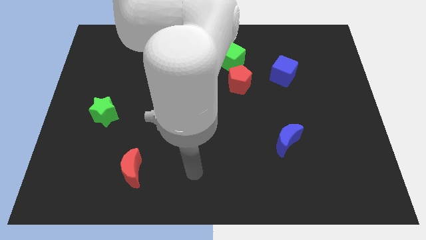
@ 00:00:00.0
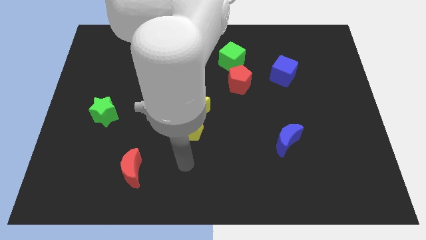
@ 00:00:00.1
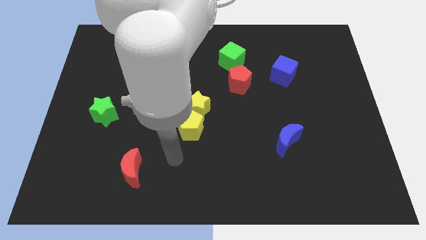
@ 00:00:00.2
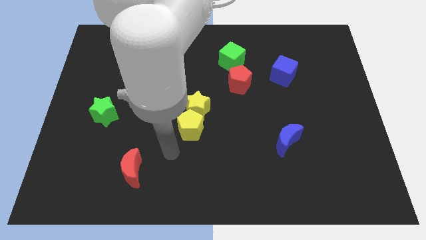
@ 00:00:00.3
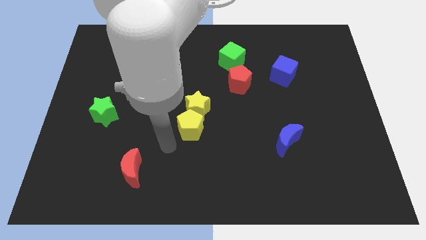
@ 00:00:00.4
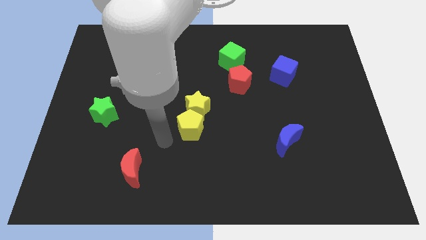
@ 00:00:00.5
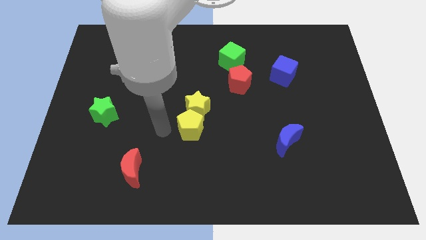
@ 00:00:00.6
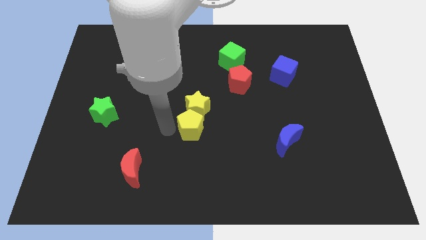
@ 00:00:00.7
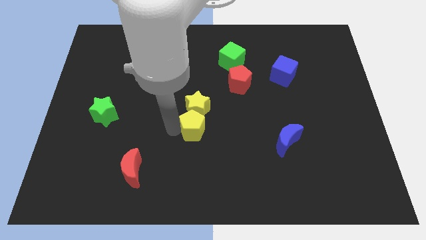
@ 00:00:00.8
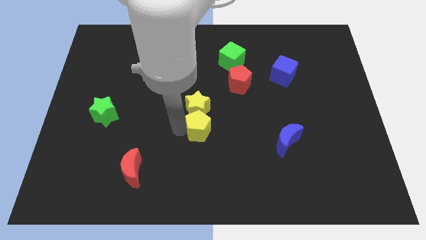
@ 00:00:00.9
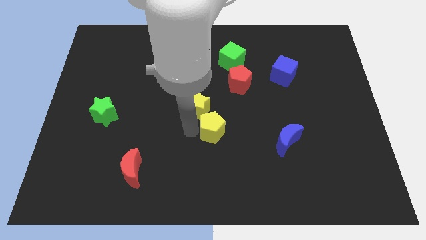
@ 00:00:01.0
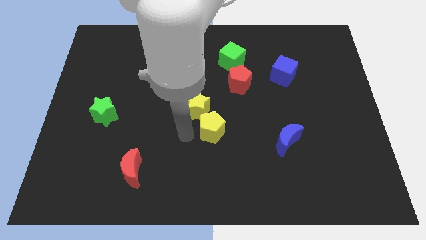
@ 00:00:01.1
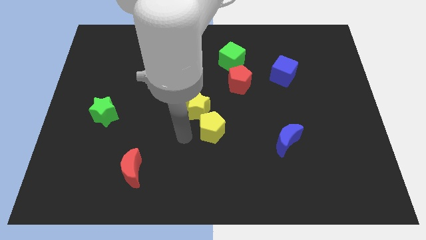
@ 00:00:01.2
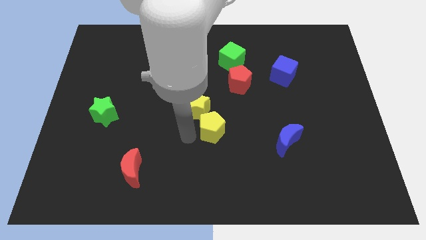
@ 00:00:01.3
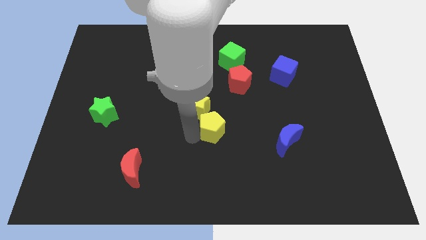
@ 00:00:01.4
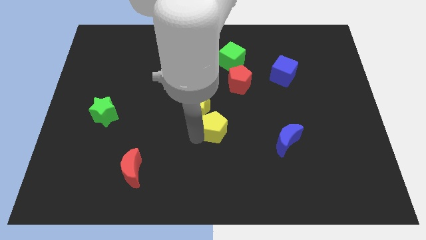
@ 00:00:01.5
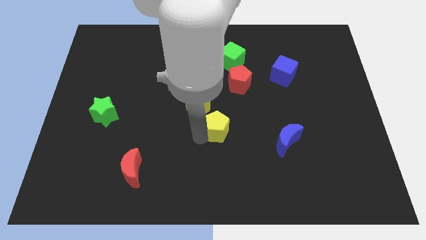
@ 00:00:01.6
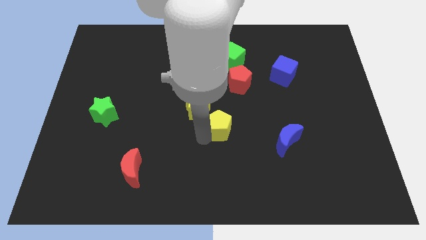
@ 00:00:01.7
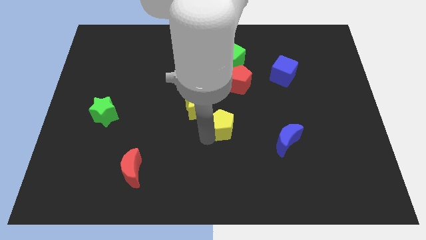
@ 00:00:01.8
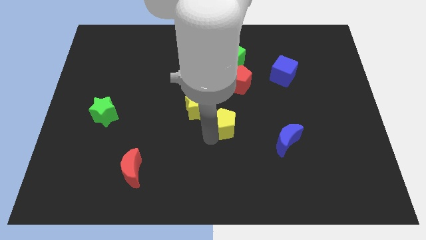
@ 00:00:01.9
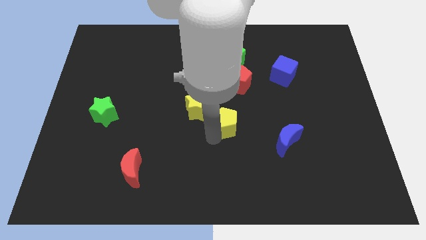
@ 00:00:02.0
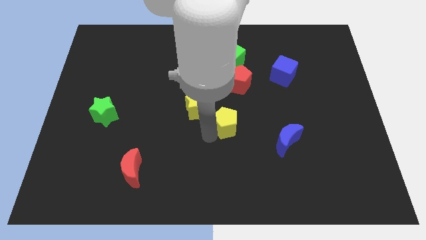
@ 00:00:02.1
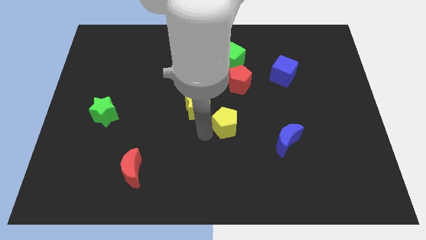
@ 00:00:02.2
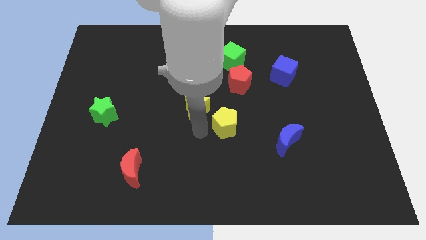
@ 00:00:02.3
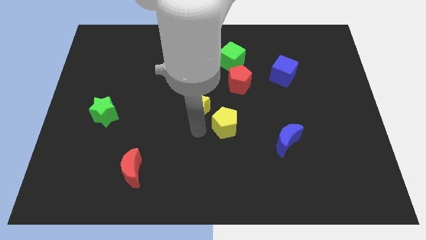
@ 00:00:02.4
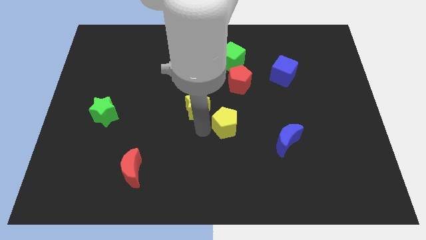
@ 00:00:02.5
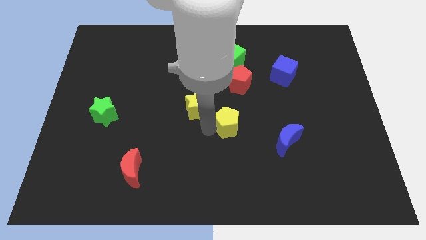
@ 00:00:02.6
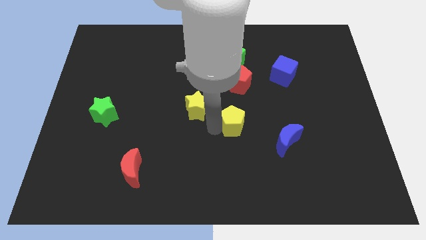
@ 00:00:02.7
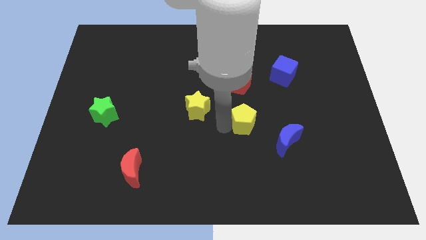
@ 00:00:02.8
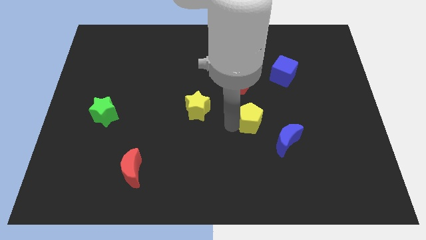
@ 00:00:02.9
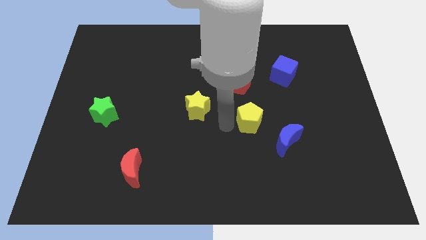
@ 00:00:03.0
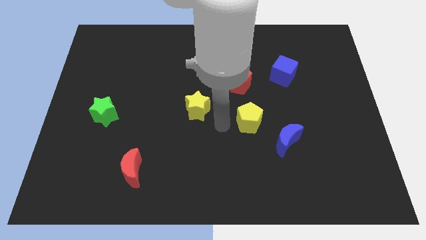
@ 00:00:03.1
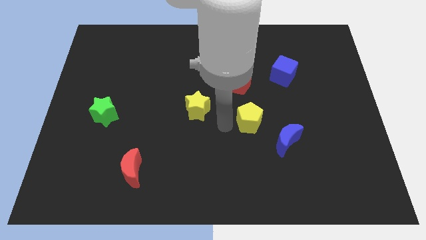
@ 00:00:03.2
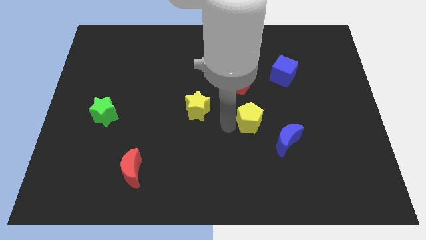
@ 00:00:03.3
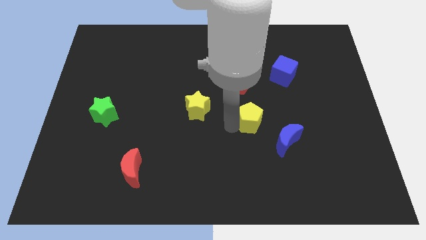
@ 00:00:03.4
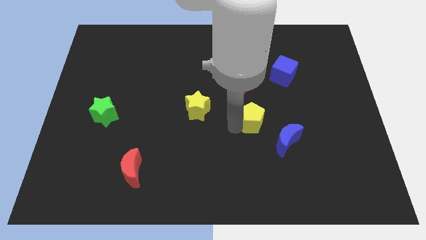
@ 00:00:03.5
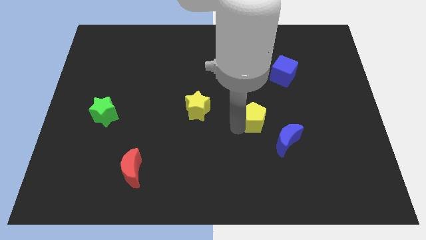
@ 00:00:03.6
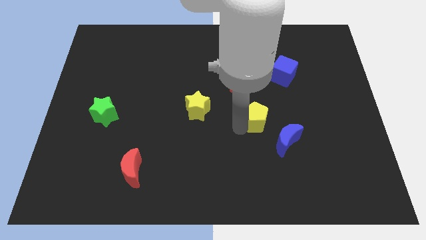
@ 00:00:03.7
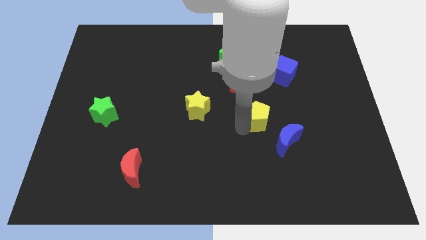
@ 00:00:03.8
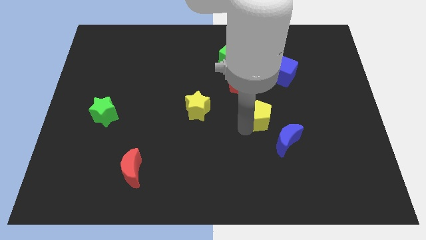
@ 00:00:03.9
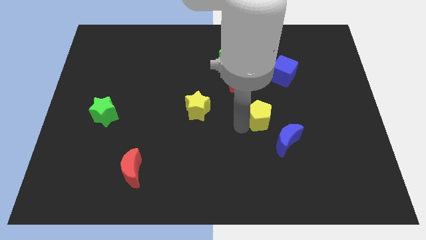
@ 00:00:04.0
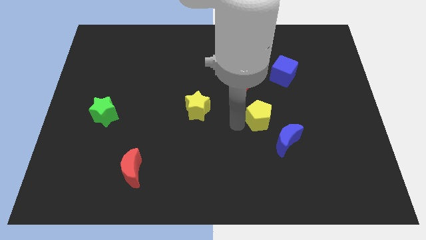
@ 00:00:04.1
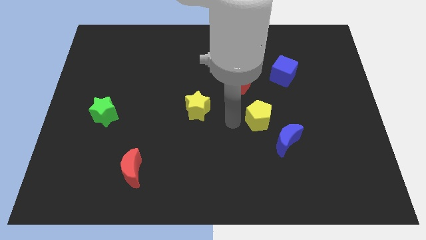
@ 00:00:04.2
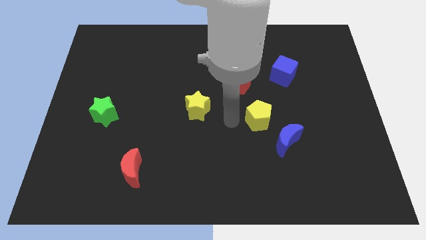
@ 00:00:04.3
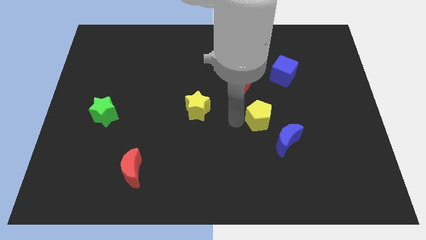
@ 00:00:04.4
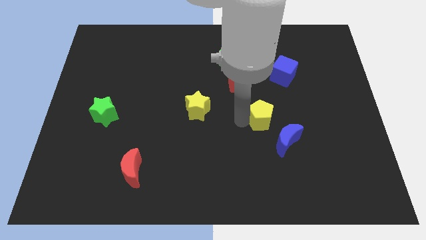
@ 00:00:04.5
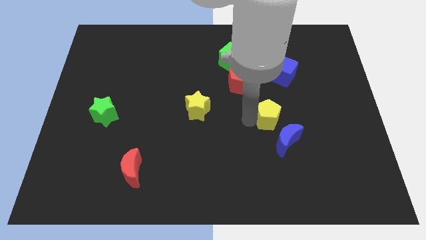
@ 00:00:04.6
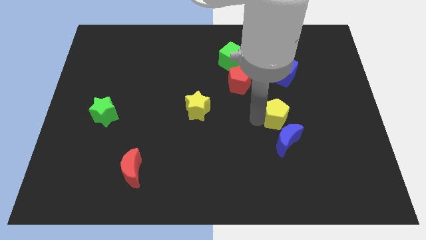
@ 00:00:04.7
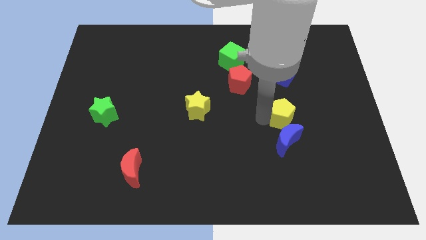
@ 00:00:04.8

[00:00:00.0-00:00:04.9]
push the yellow pentagon right

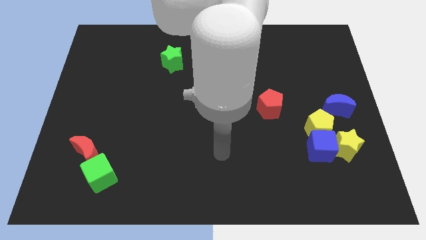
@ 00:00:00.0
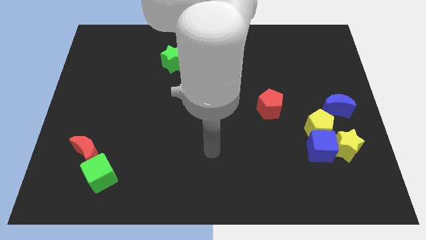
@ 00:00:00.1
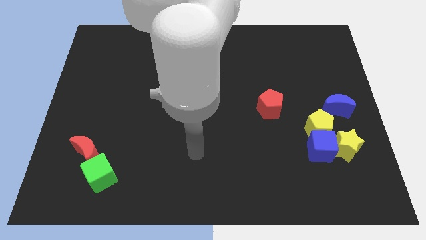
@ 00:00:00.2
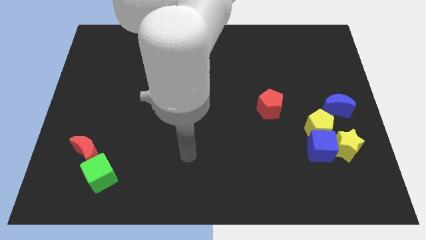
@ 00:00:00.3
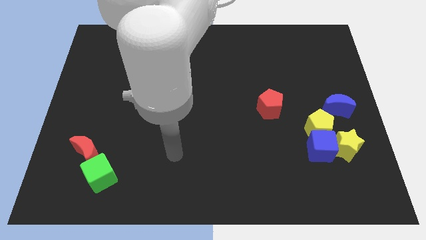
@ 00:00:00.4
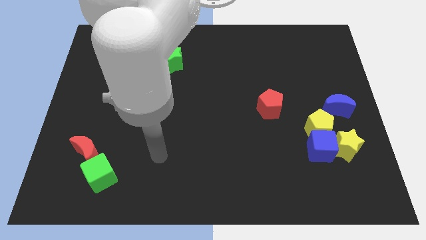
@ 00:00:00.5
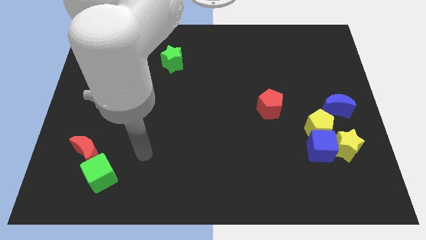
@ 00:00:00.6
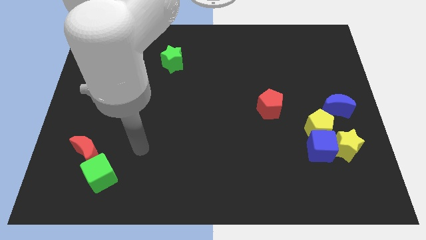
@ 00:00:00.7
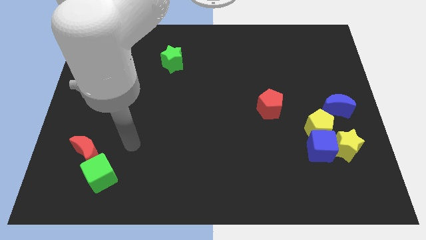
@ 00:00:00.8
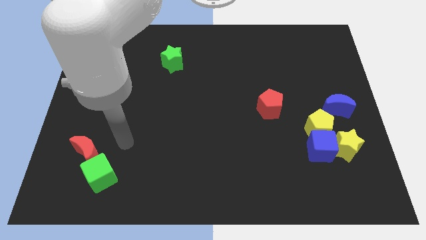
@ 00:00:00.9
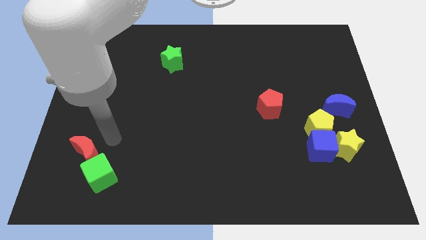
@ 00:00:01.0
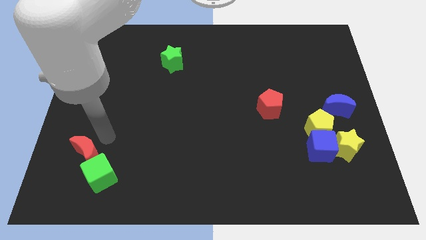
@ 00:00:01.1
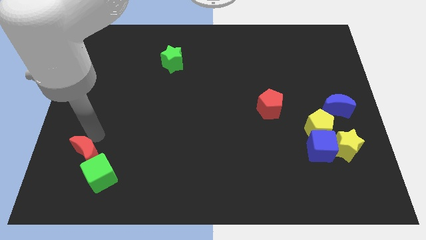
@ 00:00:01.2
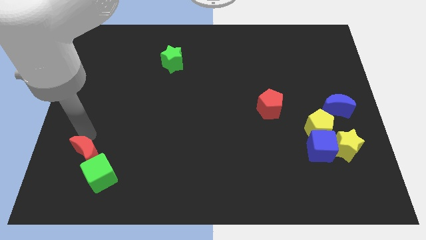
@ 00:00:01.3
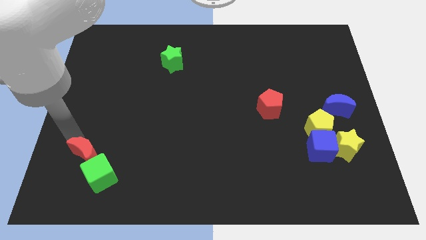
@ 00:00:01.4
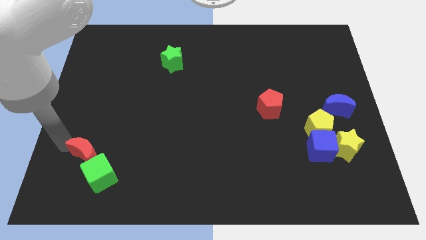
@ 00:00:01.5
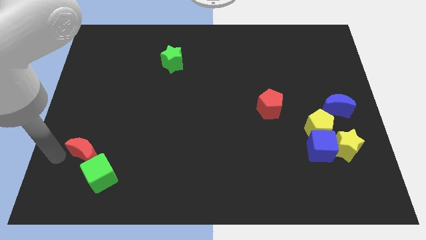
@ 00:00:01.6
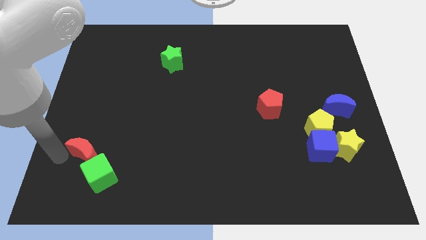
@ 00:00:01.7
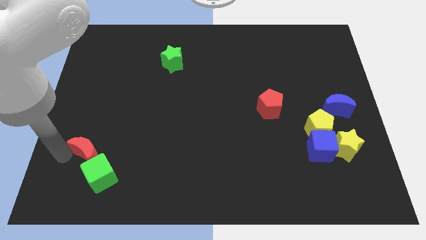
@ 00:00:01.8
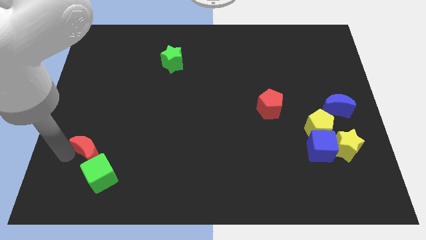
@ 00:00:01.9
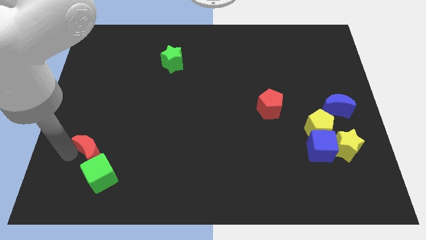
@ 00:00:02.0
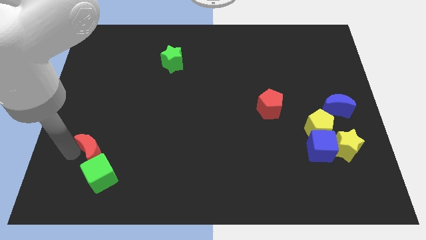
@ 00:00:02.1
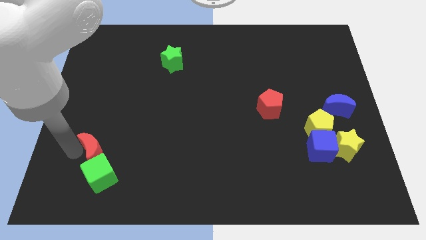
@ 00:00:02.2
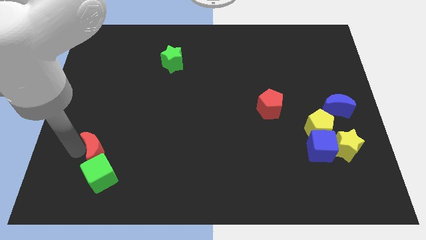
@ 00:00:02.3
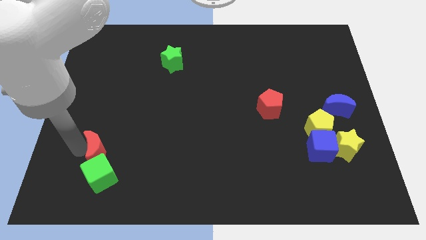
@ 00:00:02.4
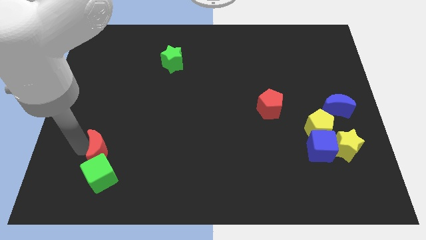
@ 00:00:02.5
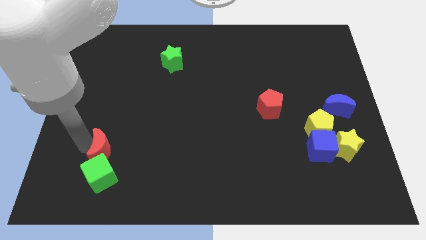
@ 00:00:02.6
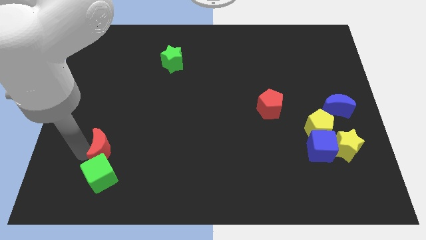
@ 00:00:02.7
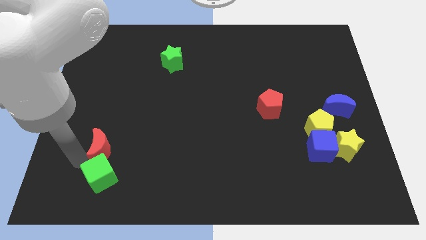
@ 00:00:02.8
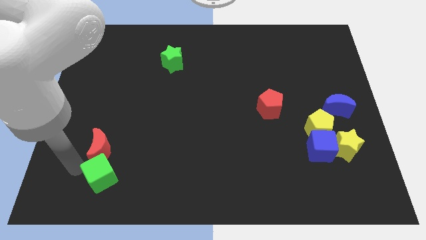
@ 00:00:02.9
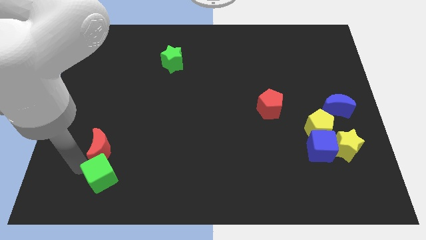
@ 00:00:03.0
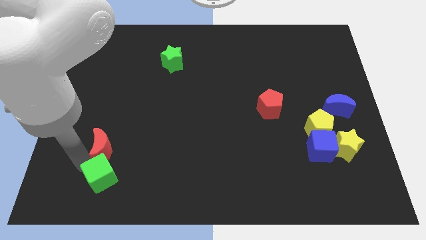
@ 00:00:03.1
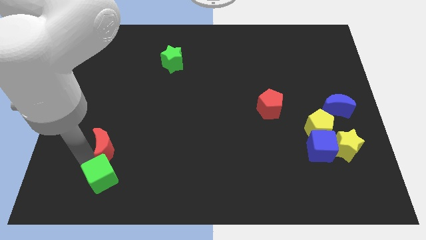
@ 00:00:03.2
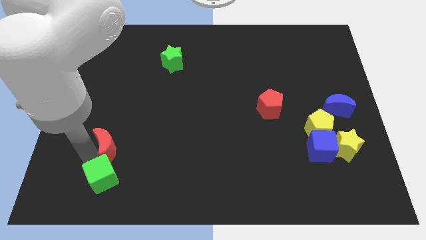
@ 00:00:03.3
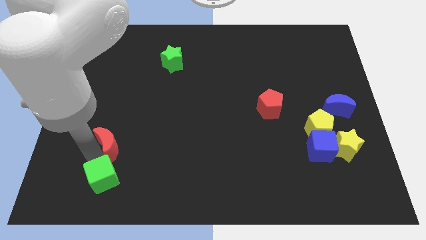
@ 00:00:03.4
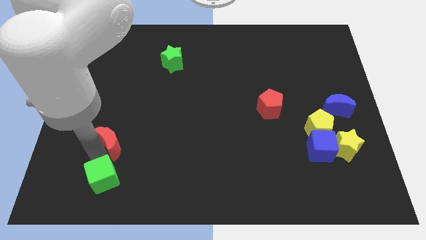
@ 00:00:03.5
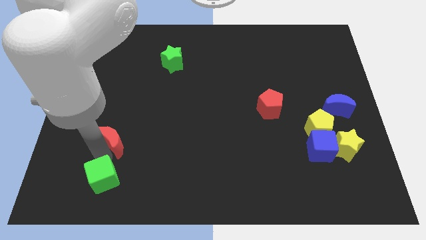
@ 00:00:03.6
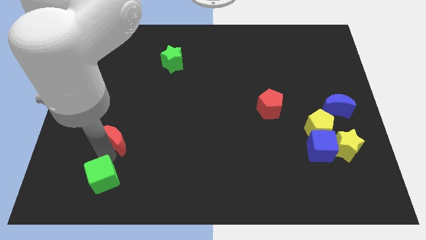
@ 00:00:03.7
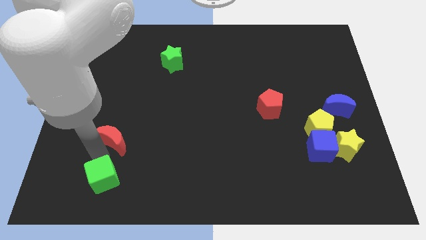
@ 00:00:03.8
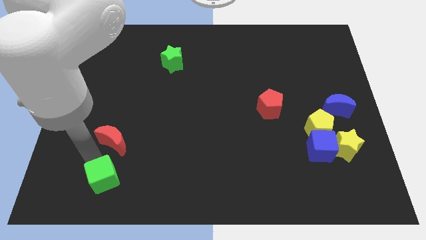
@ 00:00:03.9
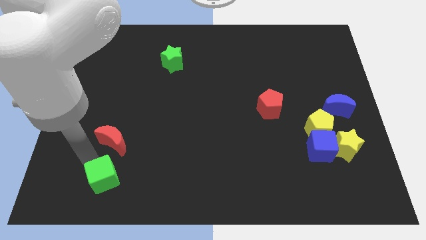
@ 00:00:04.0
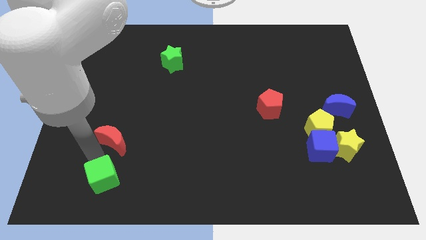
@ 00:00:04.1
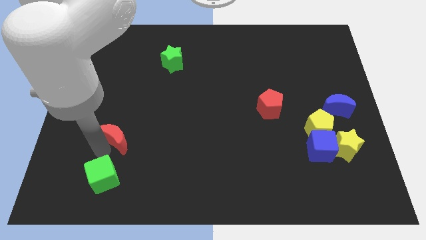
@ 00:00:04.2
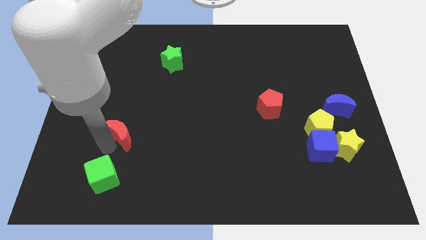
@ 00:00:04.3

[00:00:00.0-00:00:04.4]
slide the red moon somewhat up and to the right
